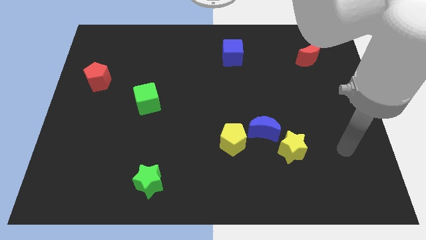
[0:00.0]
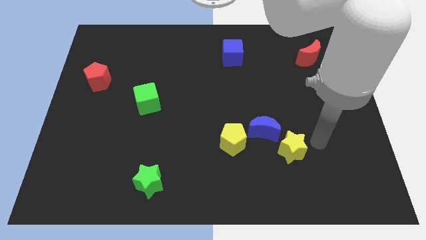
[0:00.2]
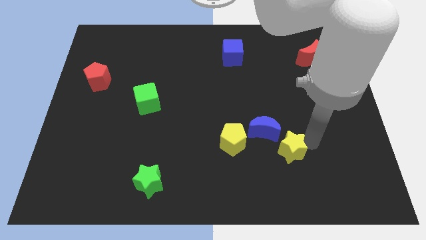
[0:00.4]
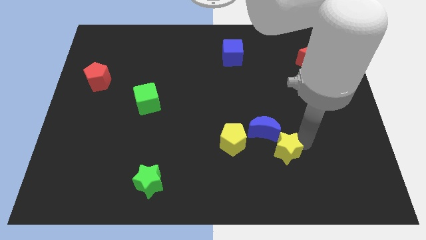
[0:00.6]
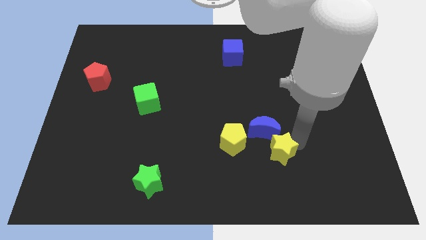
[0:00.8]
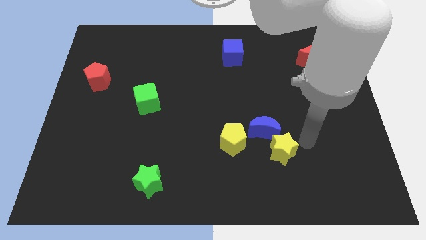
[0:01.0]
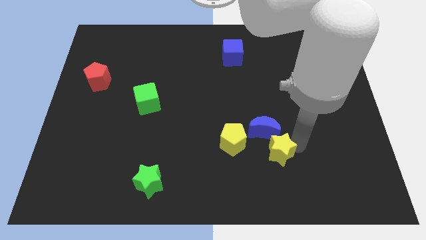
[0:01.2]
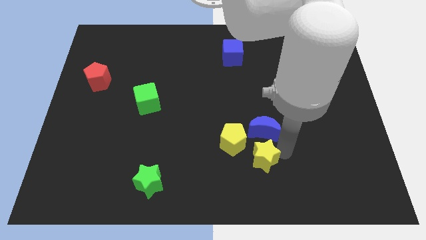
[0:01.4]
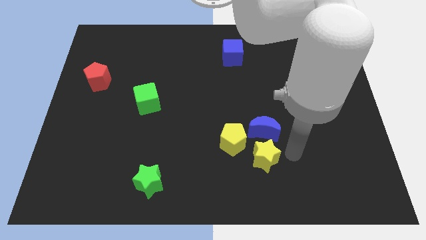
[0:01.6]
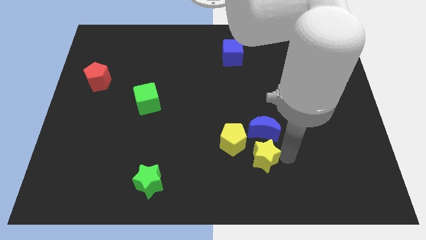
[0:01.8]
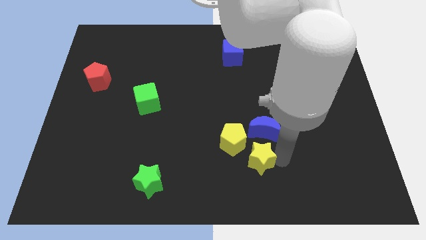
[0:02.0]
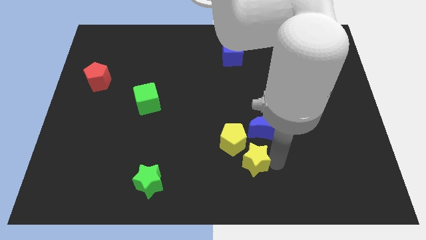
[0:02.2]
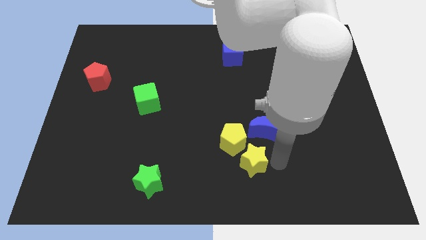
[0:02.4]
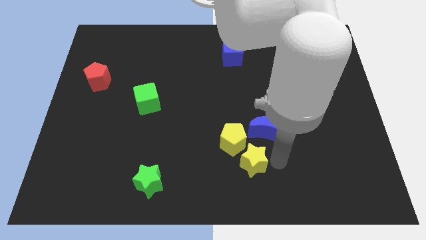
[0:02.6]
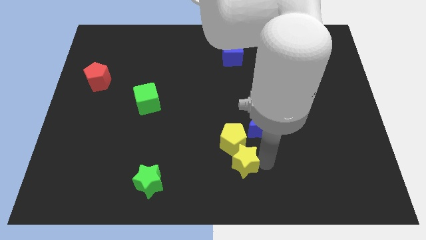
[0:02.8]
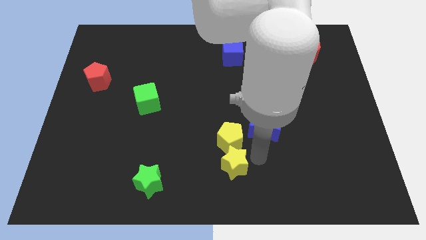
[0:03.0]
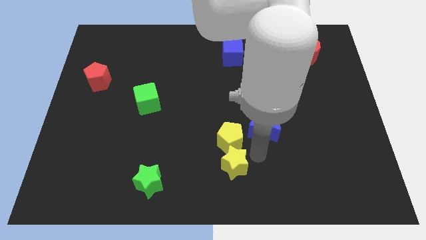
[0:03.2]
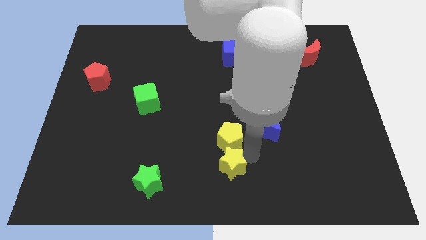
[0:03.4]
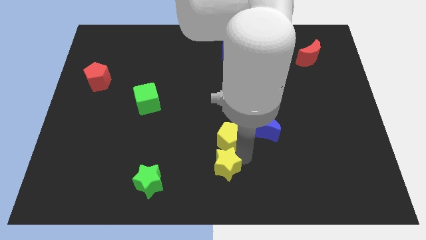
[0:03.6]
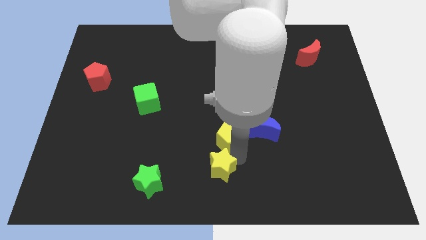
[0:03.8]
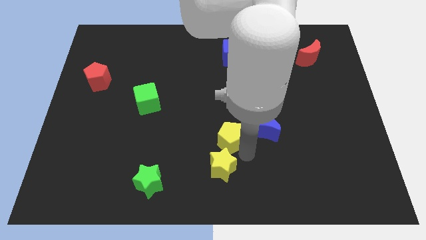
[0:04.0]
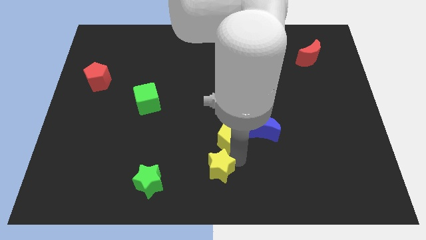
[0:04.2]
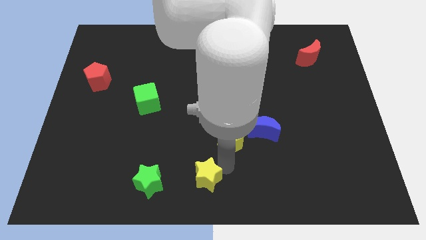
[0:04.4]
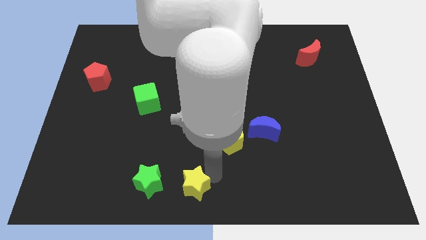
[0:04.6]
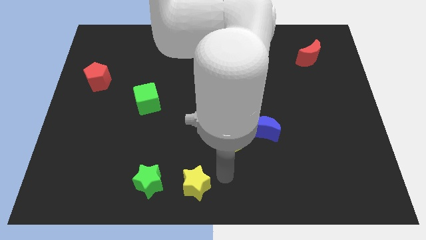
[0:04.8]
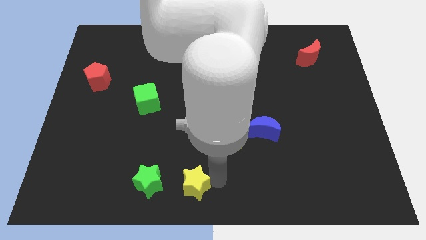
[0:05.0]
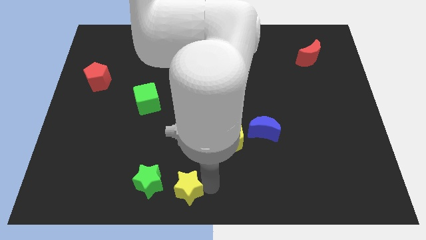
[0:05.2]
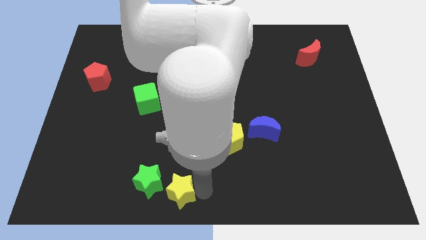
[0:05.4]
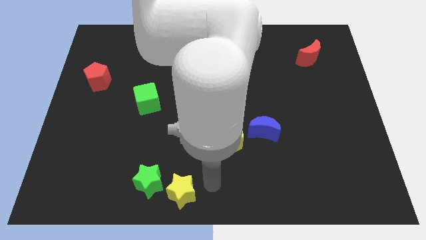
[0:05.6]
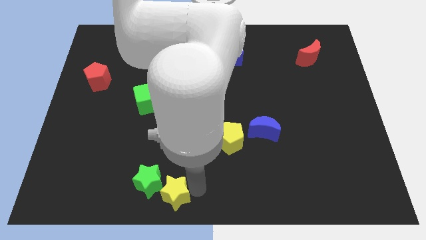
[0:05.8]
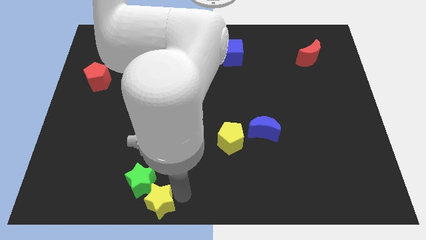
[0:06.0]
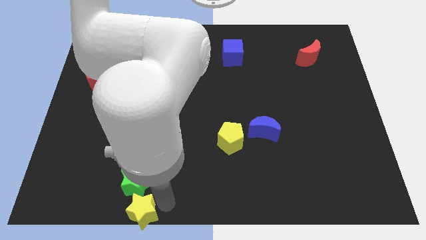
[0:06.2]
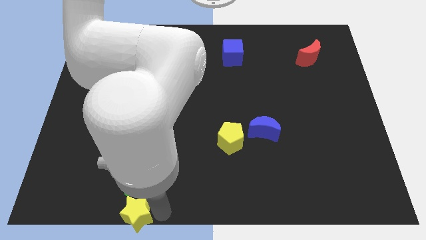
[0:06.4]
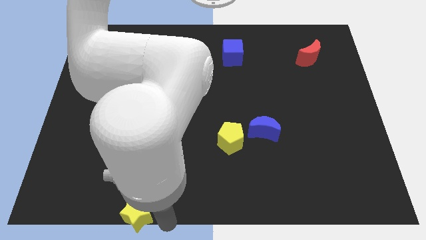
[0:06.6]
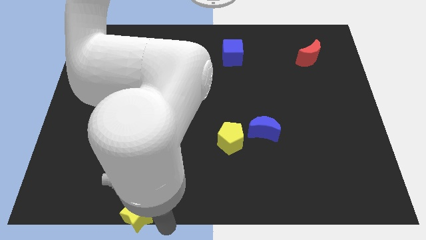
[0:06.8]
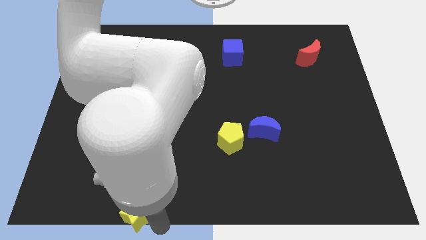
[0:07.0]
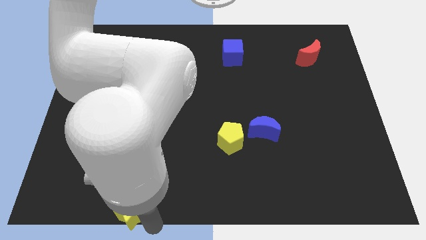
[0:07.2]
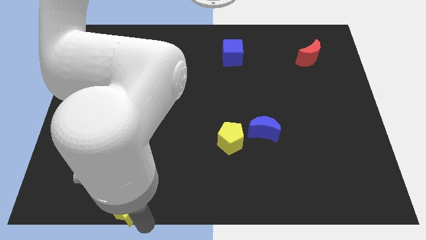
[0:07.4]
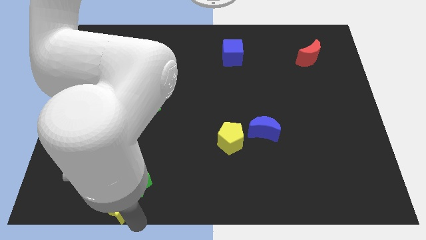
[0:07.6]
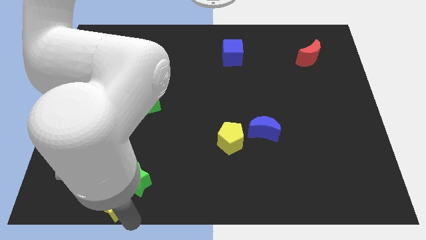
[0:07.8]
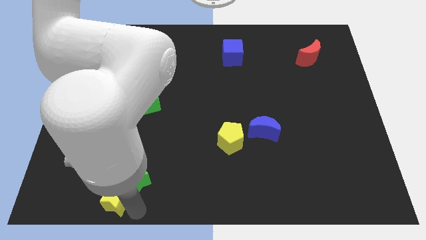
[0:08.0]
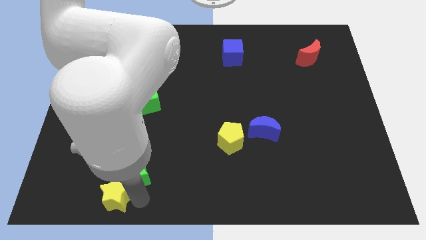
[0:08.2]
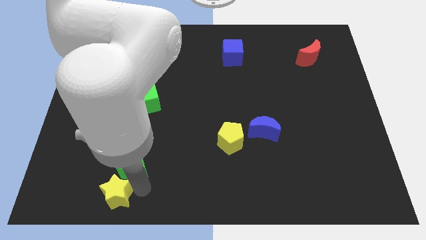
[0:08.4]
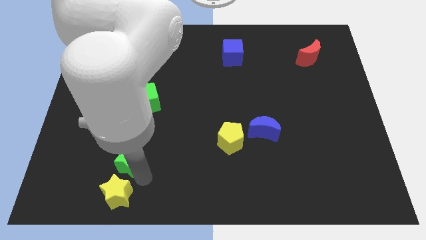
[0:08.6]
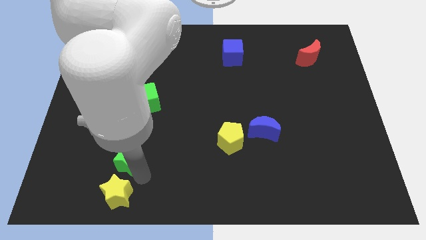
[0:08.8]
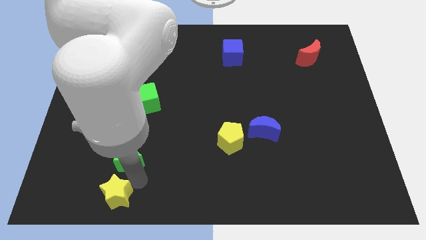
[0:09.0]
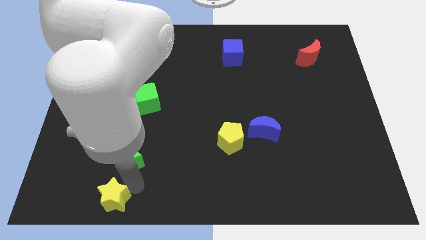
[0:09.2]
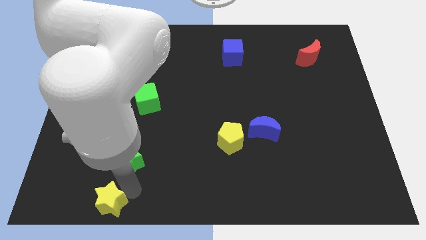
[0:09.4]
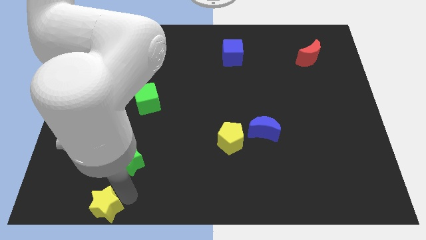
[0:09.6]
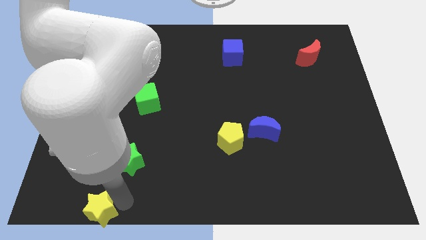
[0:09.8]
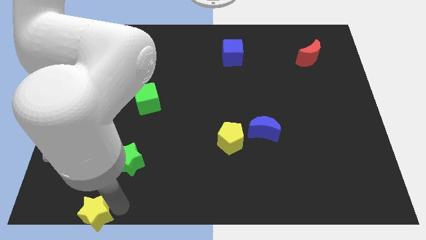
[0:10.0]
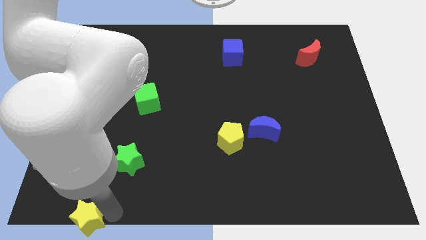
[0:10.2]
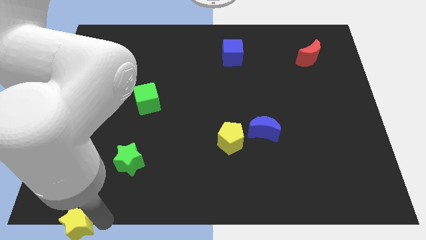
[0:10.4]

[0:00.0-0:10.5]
put the yellow star to the lower left corner
